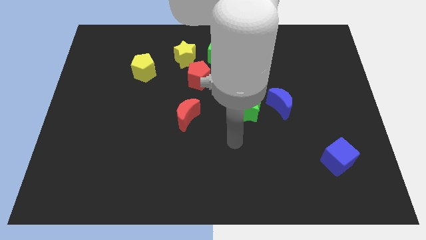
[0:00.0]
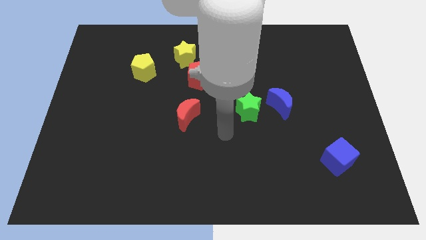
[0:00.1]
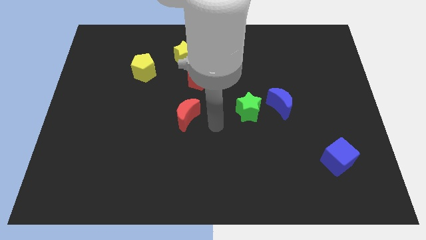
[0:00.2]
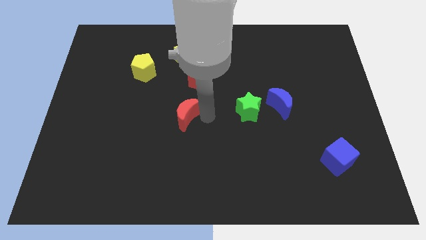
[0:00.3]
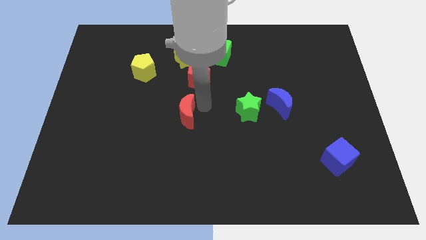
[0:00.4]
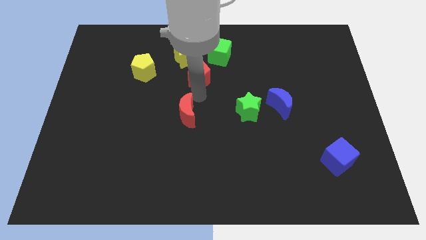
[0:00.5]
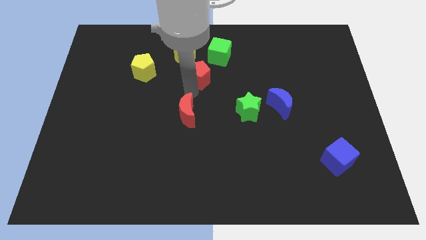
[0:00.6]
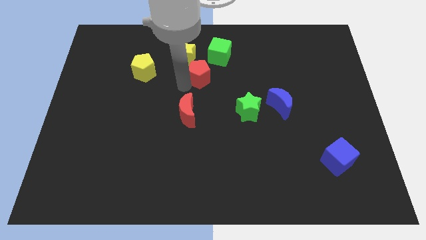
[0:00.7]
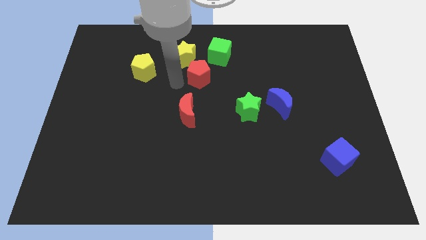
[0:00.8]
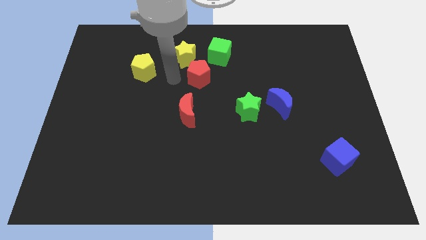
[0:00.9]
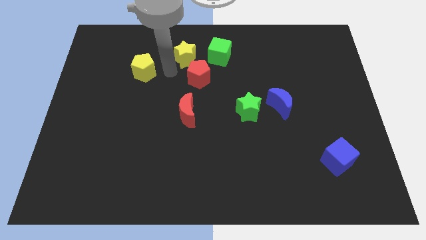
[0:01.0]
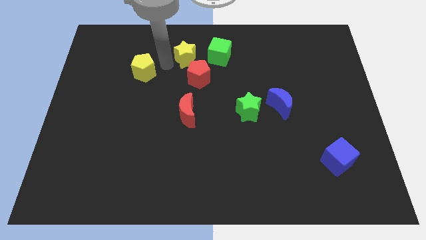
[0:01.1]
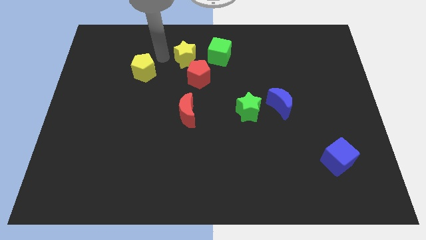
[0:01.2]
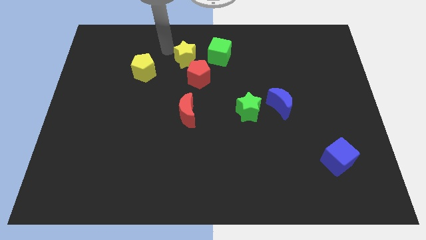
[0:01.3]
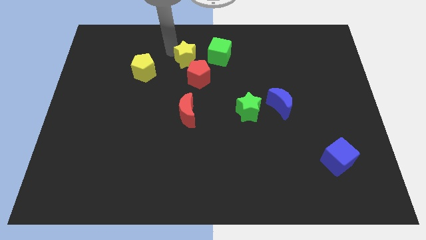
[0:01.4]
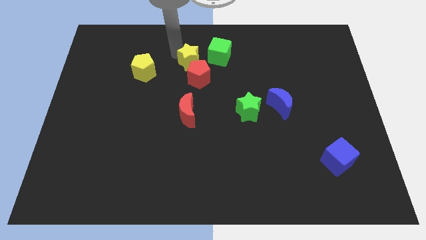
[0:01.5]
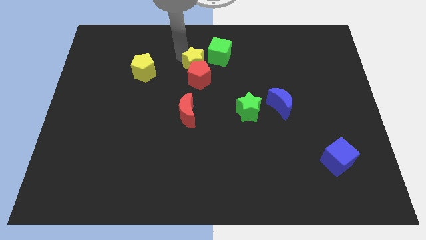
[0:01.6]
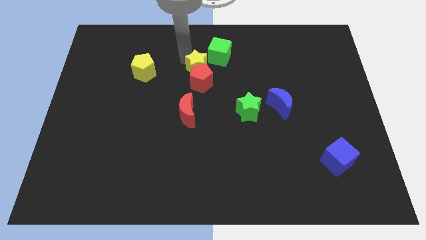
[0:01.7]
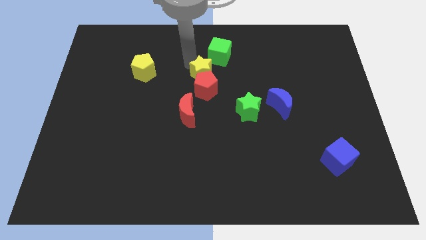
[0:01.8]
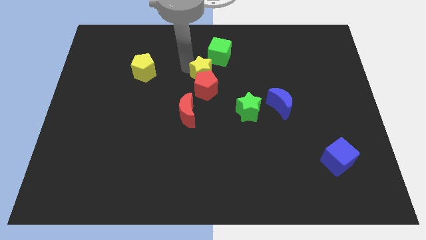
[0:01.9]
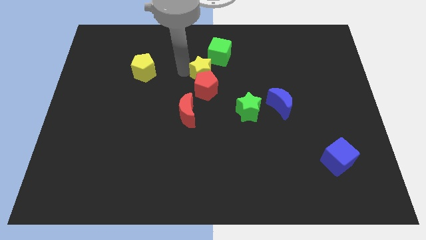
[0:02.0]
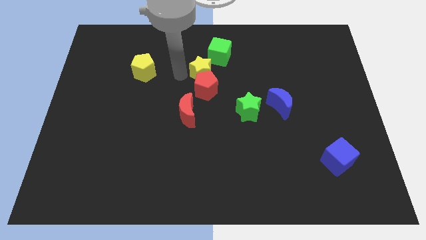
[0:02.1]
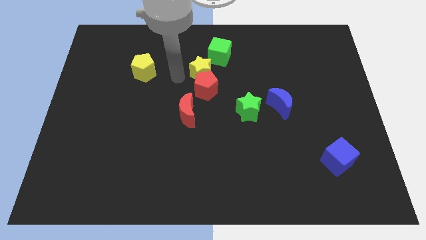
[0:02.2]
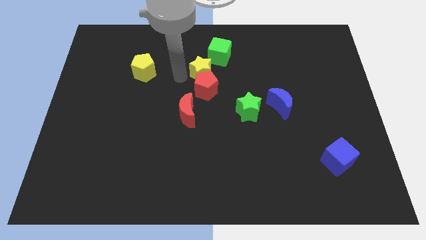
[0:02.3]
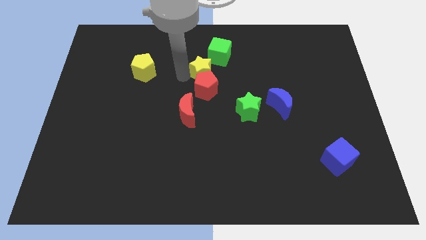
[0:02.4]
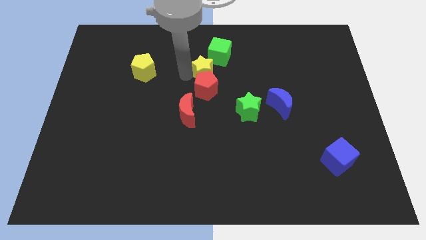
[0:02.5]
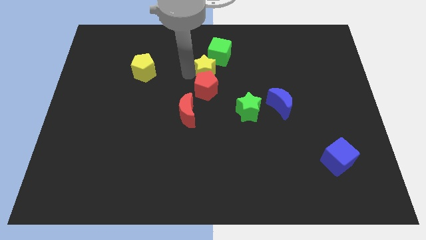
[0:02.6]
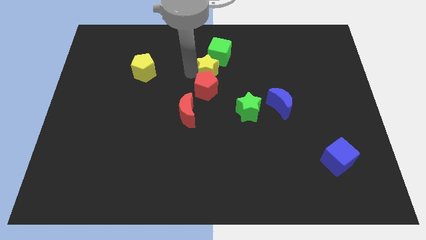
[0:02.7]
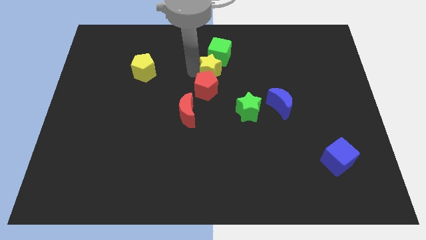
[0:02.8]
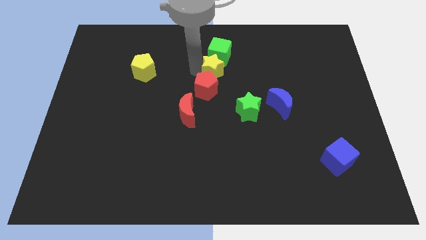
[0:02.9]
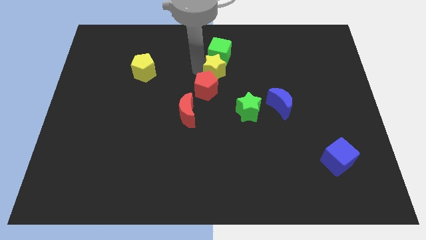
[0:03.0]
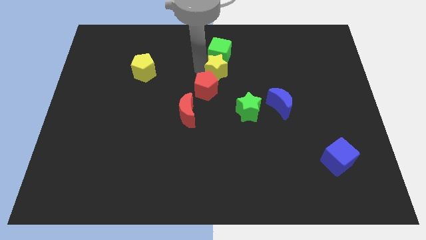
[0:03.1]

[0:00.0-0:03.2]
push the yellow star right somewhat

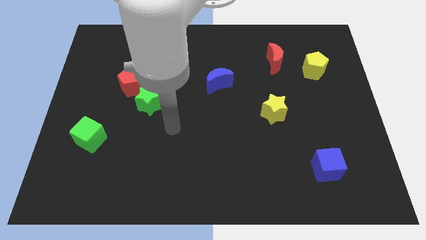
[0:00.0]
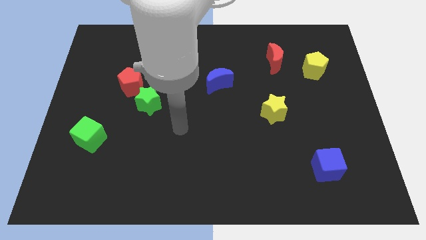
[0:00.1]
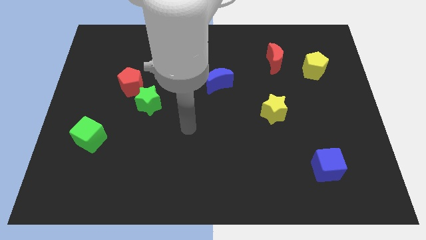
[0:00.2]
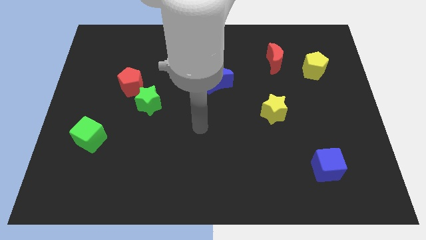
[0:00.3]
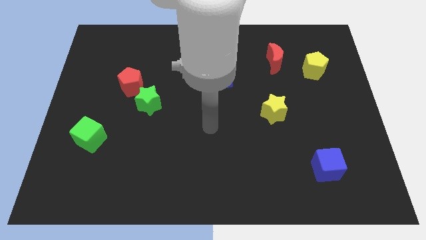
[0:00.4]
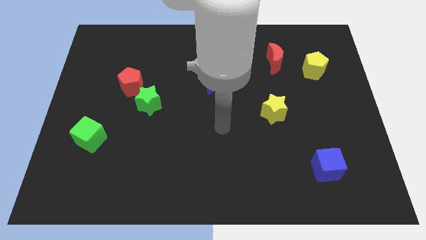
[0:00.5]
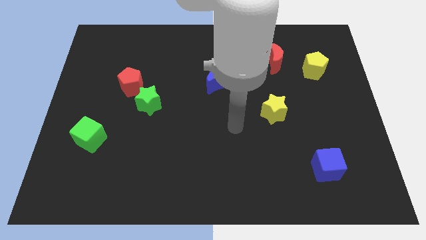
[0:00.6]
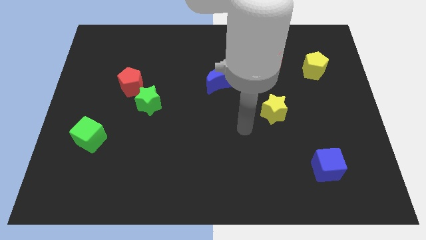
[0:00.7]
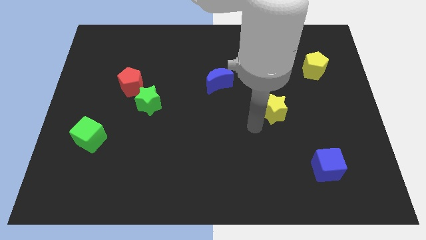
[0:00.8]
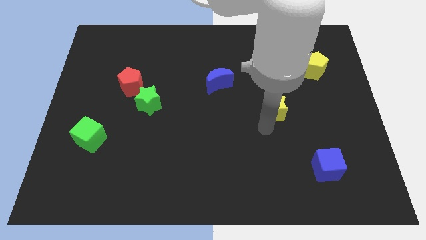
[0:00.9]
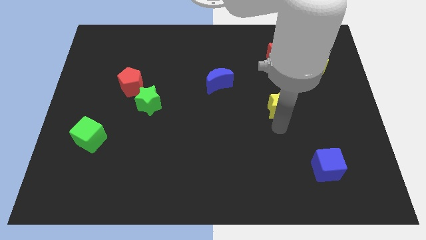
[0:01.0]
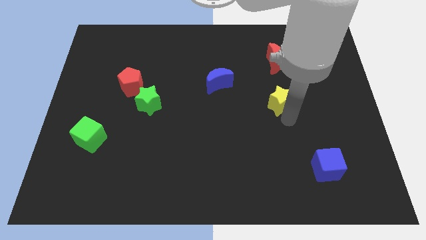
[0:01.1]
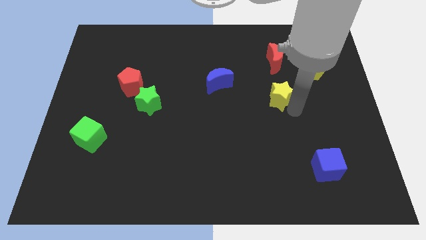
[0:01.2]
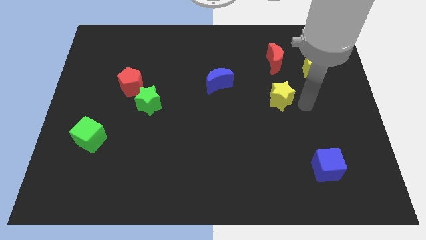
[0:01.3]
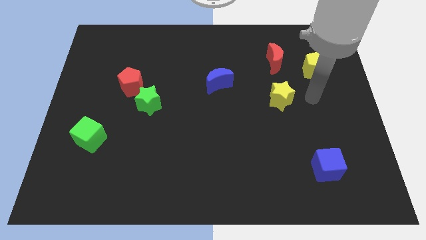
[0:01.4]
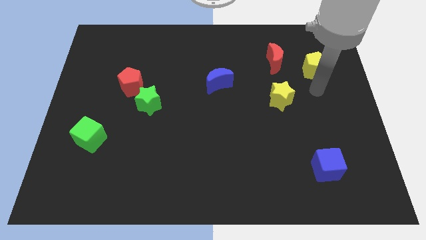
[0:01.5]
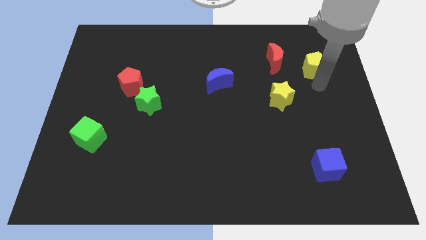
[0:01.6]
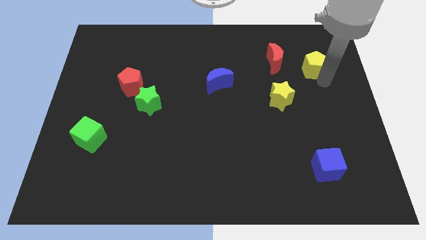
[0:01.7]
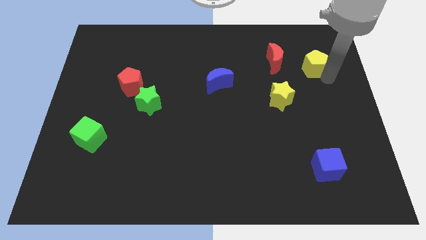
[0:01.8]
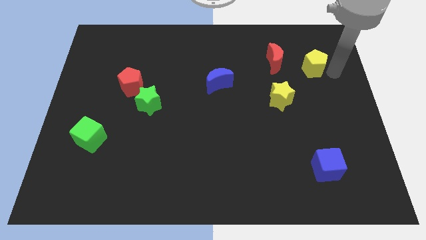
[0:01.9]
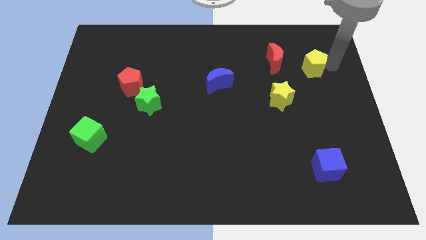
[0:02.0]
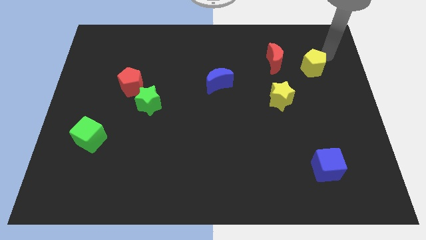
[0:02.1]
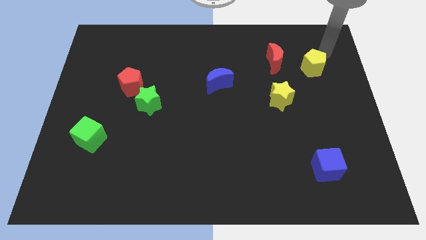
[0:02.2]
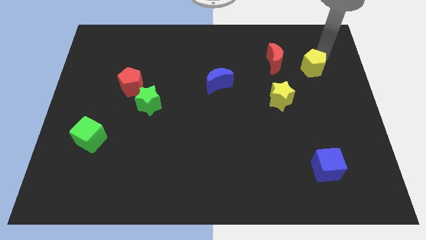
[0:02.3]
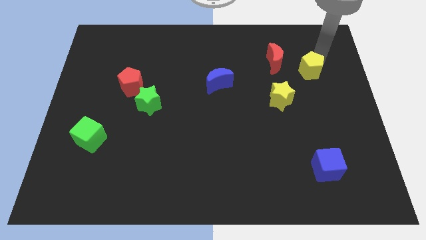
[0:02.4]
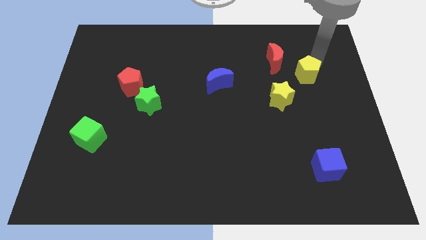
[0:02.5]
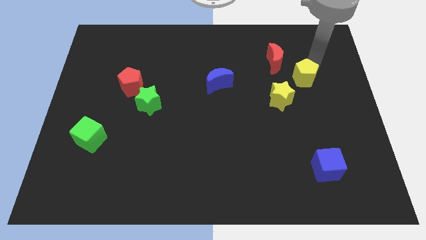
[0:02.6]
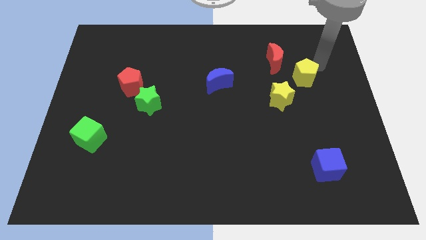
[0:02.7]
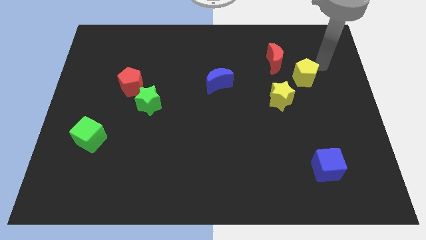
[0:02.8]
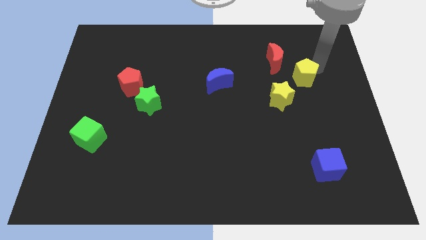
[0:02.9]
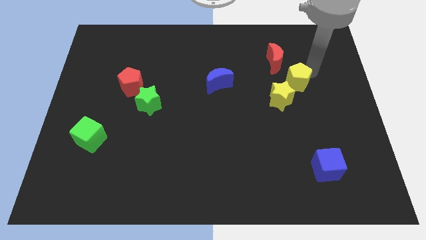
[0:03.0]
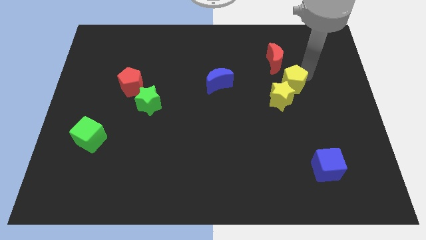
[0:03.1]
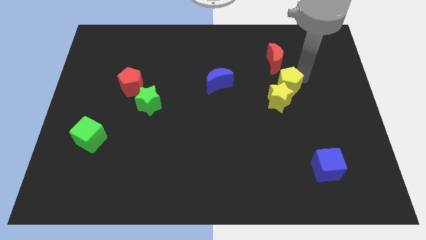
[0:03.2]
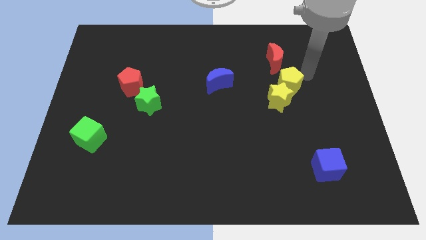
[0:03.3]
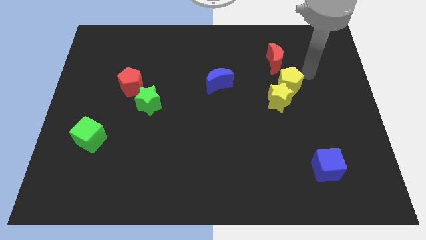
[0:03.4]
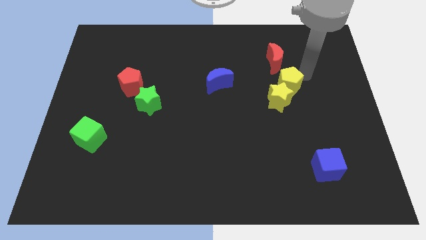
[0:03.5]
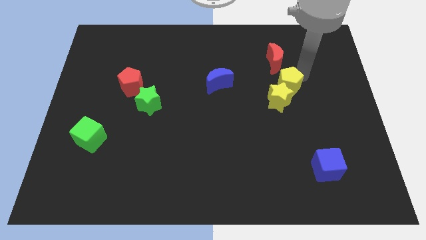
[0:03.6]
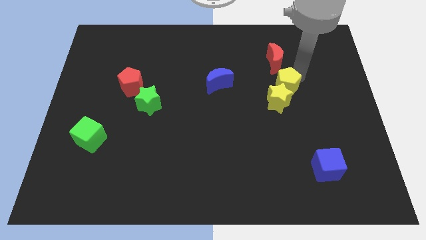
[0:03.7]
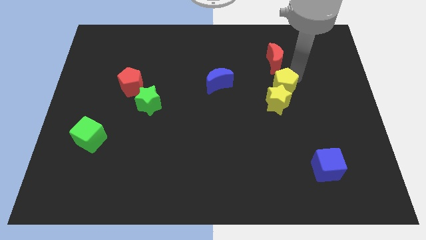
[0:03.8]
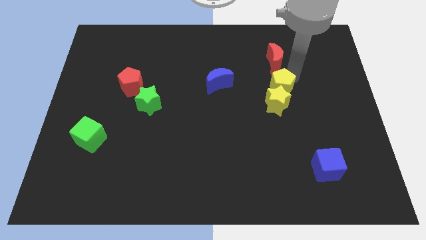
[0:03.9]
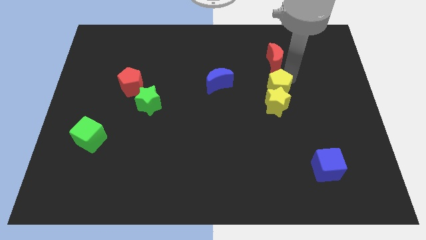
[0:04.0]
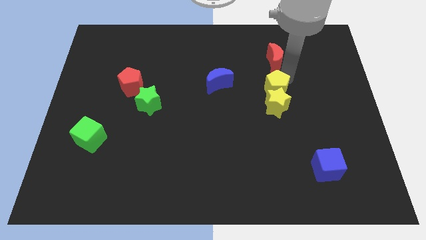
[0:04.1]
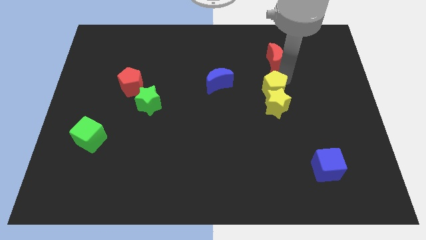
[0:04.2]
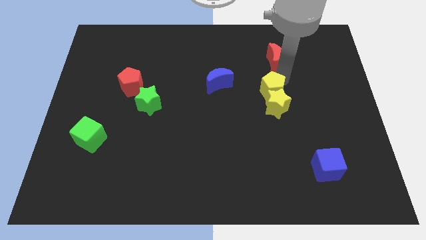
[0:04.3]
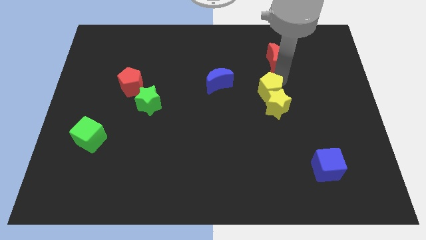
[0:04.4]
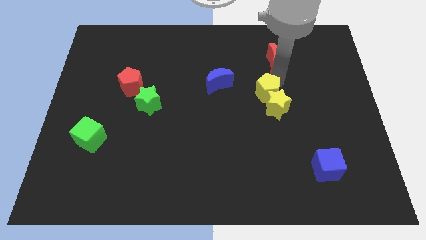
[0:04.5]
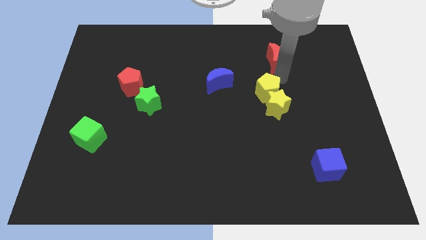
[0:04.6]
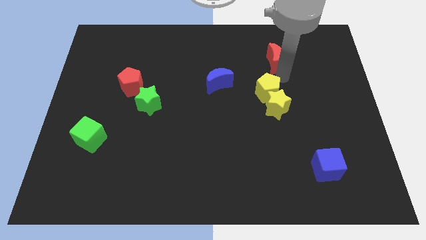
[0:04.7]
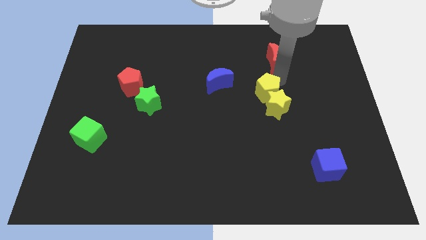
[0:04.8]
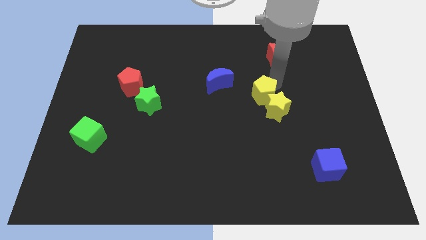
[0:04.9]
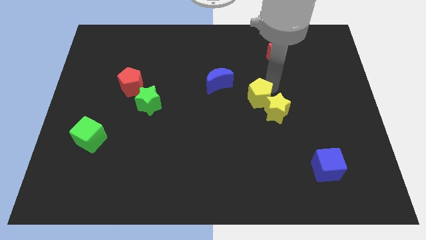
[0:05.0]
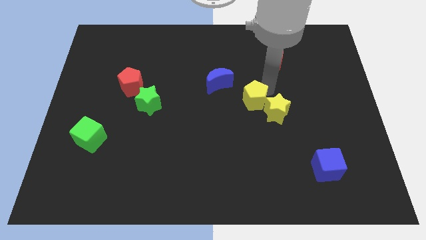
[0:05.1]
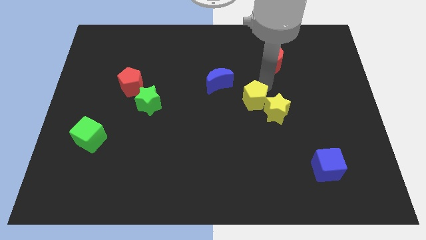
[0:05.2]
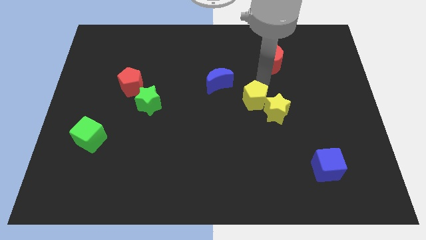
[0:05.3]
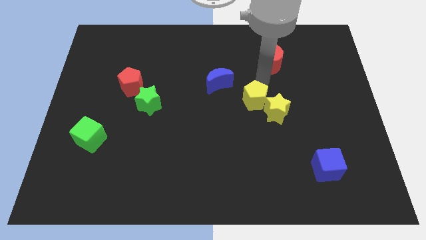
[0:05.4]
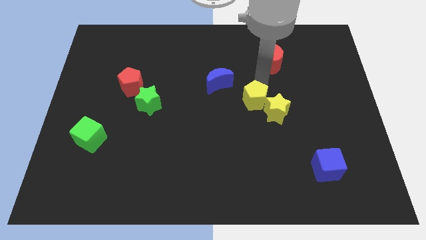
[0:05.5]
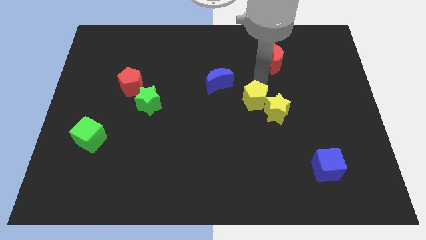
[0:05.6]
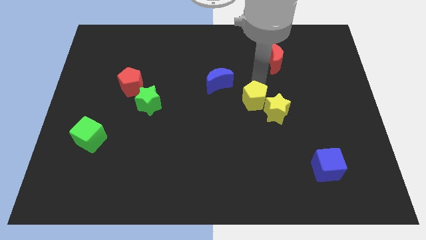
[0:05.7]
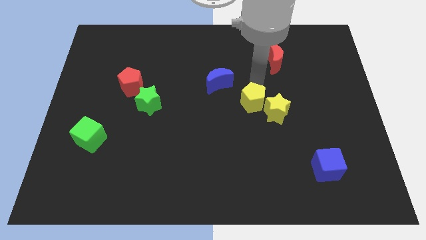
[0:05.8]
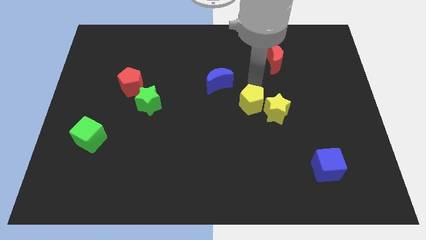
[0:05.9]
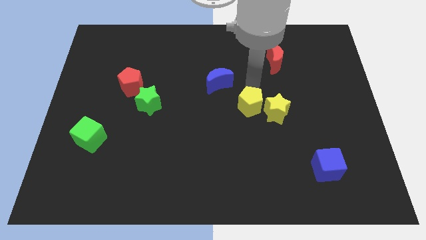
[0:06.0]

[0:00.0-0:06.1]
push the yellow pentagon down and to the left
